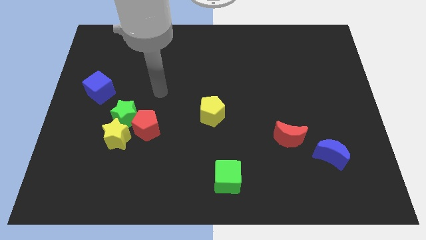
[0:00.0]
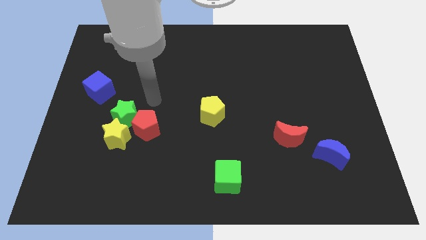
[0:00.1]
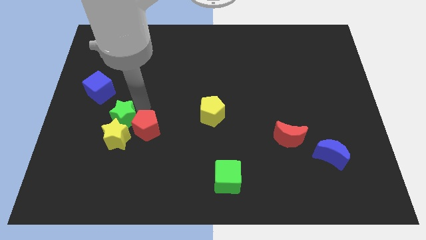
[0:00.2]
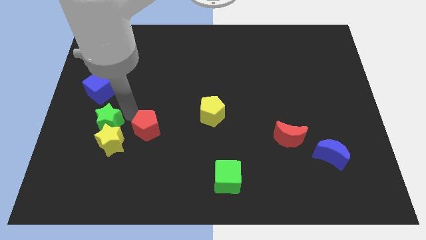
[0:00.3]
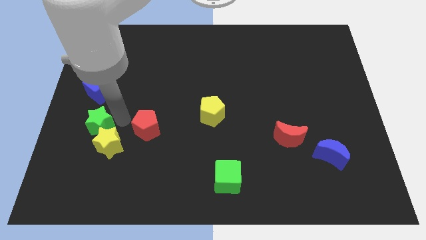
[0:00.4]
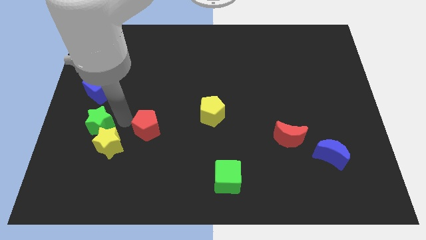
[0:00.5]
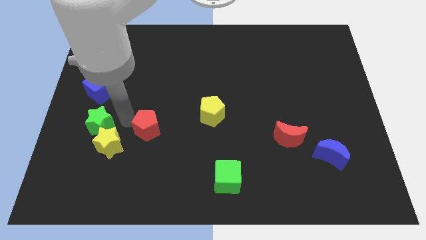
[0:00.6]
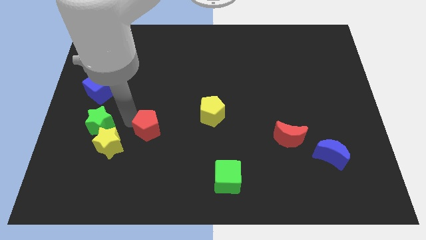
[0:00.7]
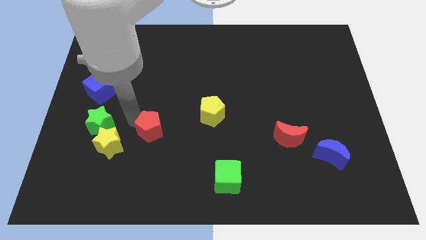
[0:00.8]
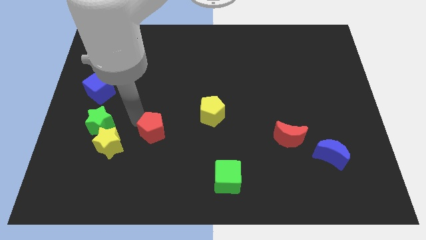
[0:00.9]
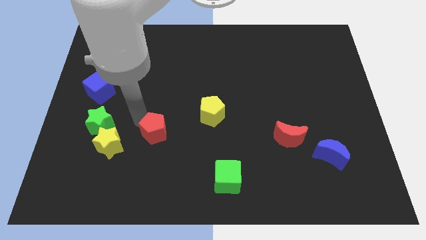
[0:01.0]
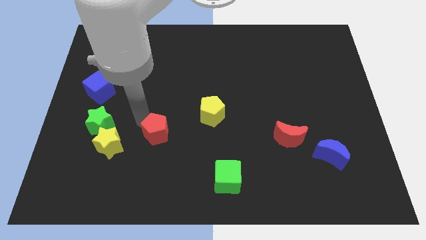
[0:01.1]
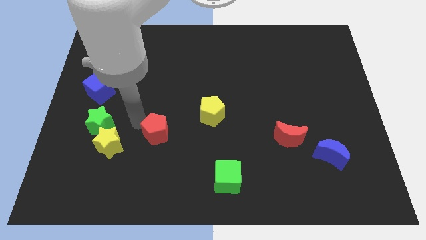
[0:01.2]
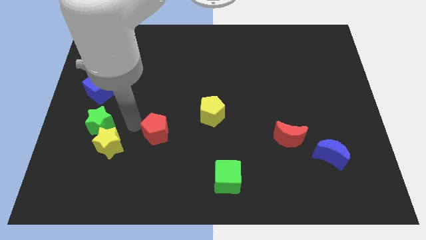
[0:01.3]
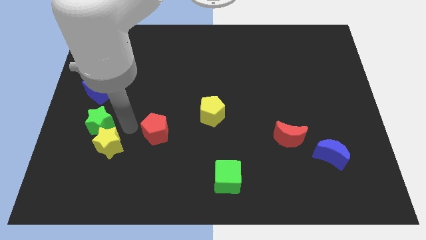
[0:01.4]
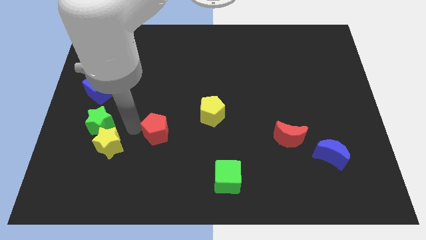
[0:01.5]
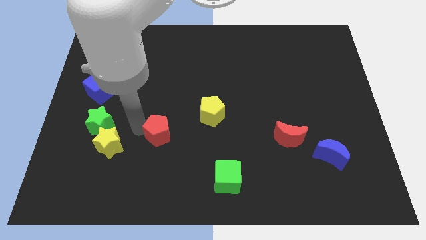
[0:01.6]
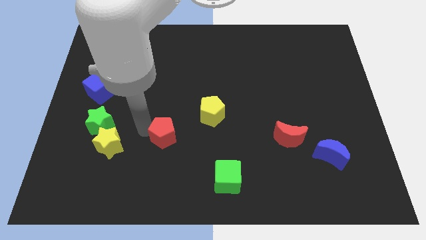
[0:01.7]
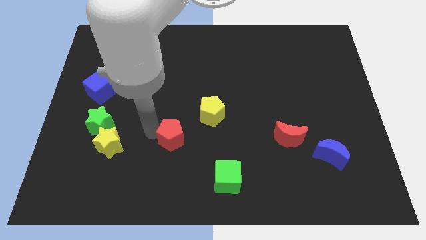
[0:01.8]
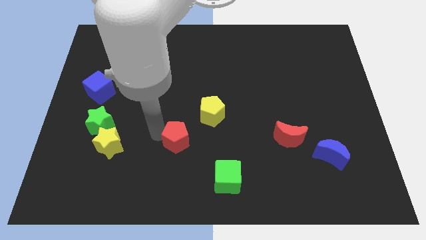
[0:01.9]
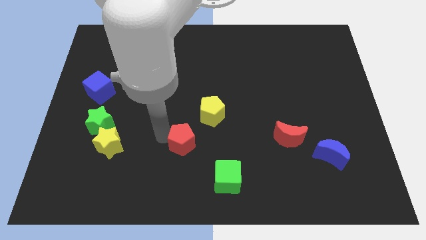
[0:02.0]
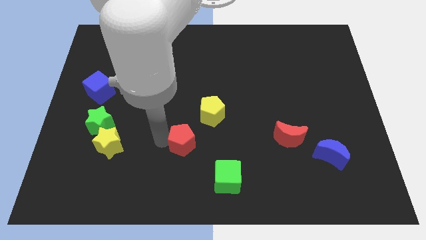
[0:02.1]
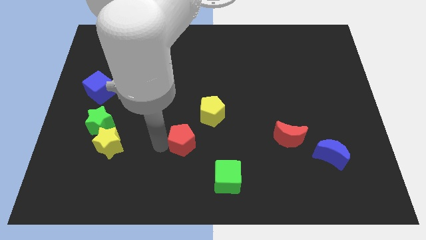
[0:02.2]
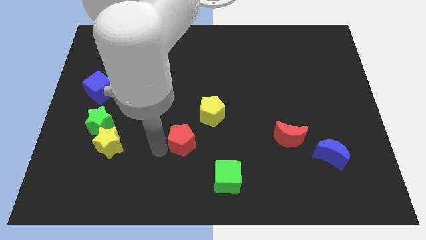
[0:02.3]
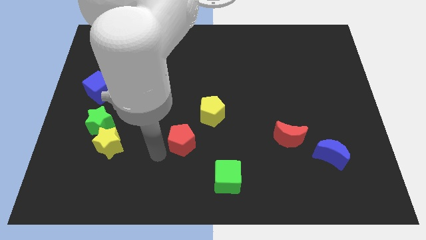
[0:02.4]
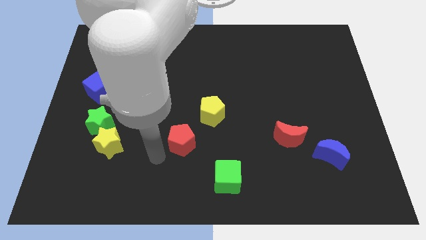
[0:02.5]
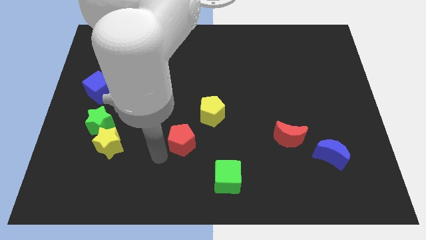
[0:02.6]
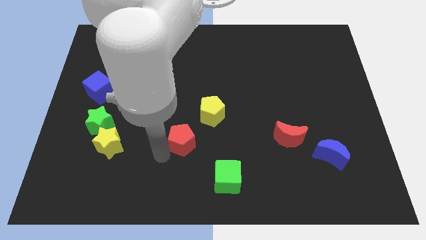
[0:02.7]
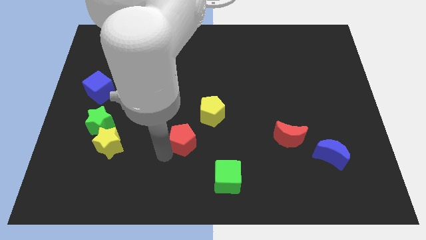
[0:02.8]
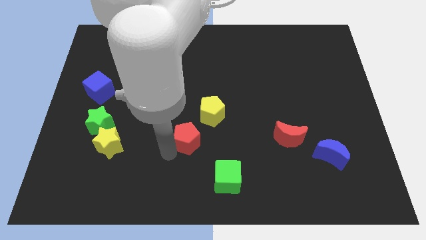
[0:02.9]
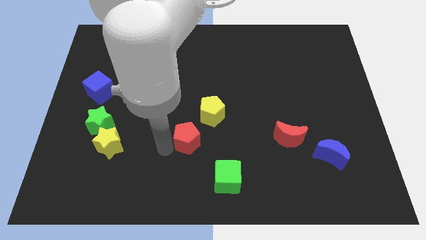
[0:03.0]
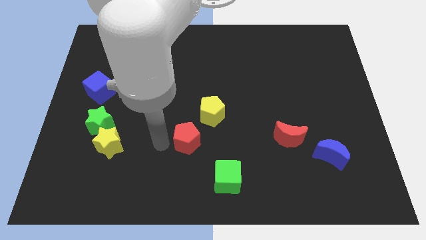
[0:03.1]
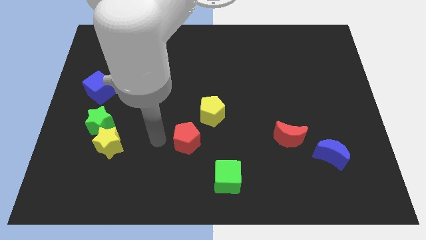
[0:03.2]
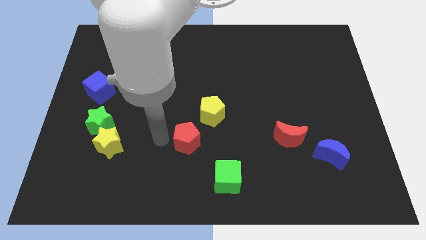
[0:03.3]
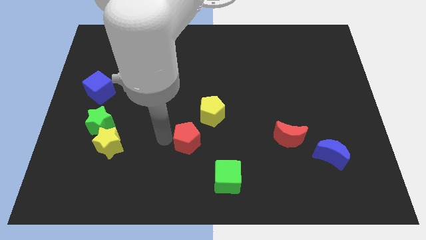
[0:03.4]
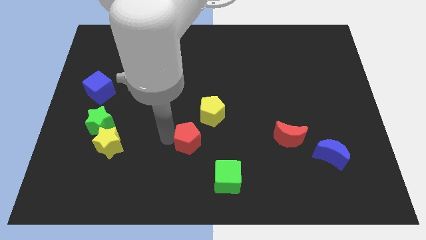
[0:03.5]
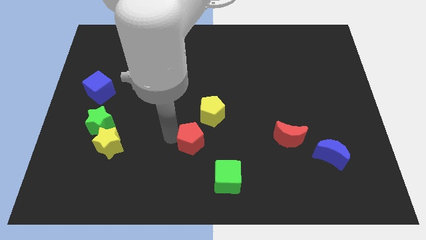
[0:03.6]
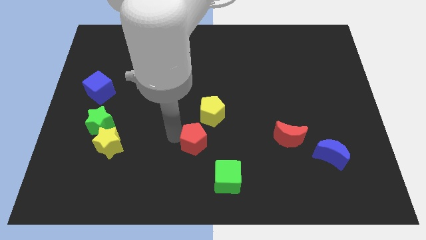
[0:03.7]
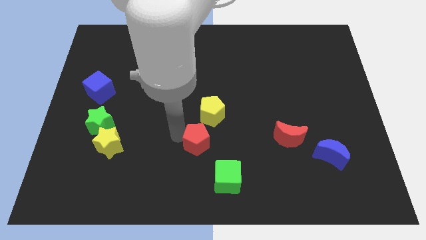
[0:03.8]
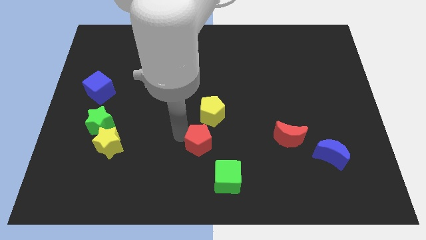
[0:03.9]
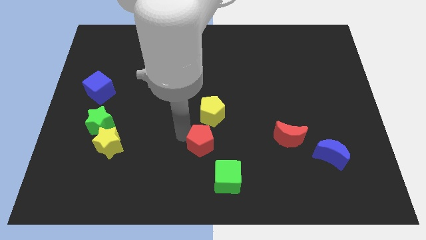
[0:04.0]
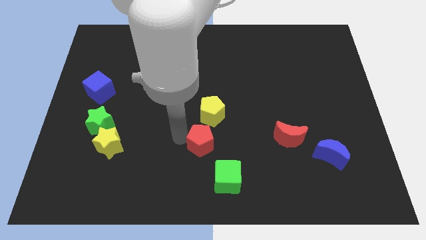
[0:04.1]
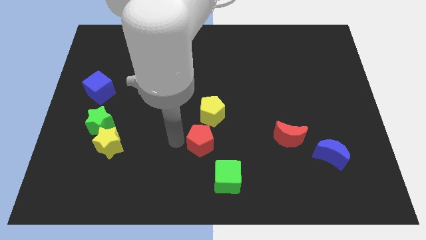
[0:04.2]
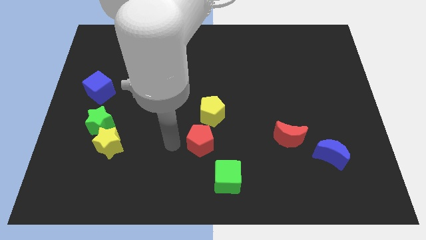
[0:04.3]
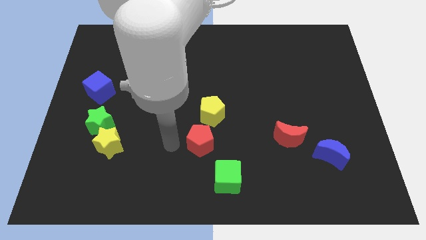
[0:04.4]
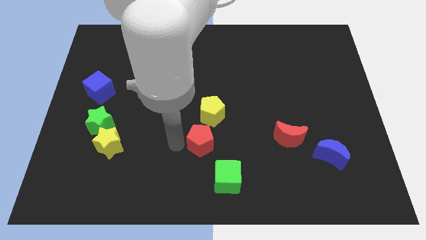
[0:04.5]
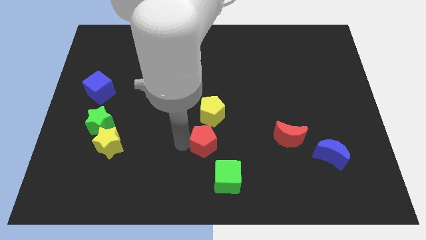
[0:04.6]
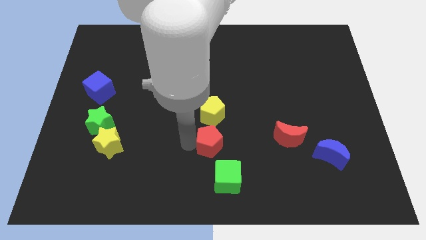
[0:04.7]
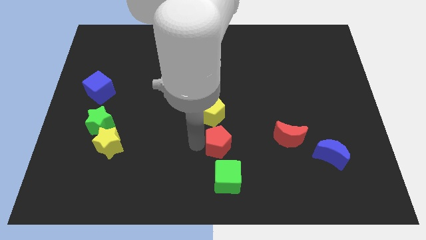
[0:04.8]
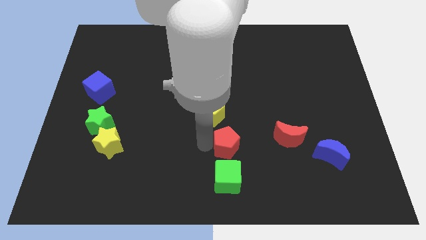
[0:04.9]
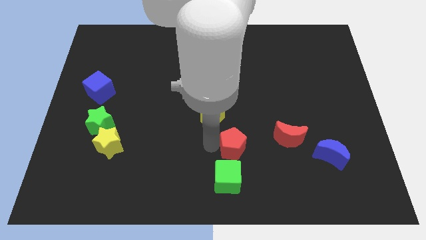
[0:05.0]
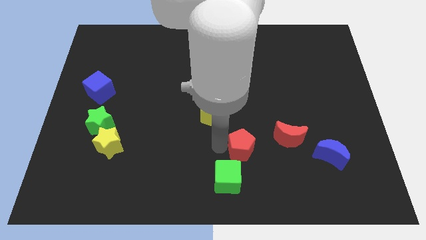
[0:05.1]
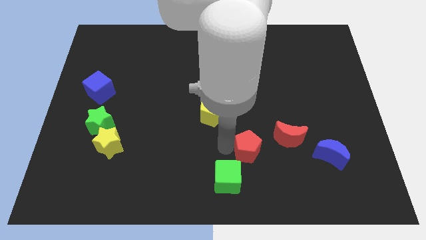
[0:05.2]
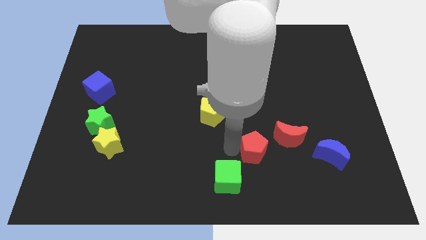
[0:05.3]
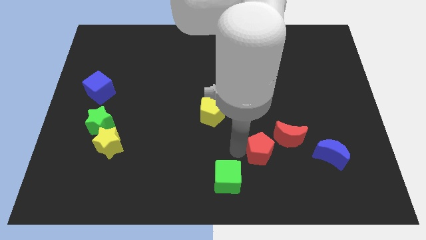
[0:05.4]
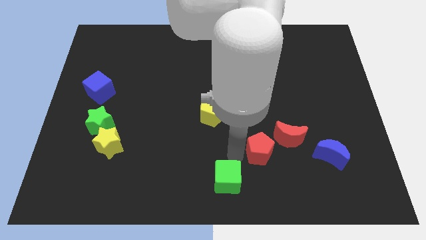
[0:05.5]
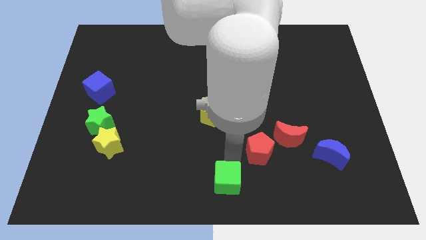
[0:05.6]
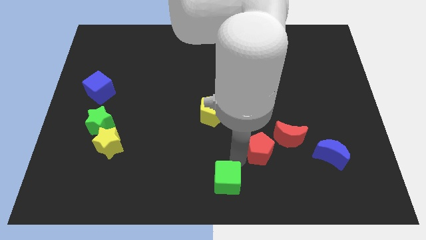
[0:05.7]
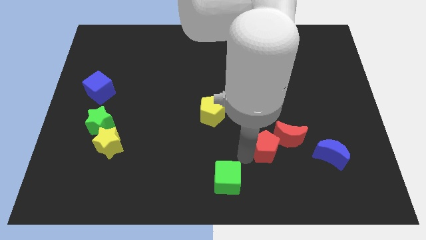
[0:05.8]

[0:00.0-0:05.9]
put the red pentagon close to the red moon

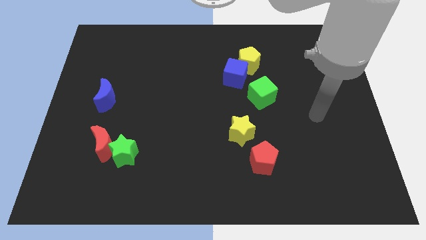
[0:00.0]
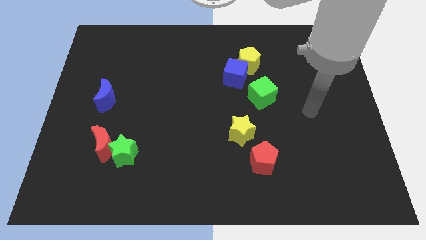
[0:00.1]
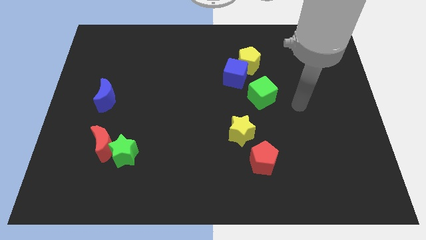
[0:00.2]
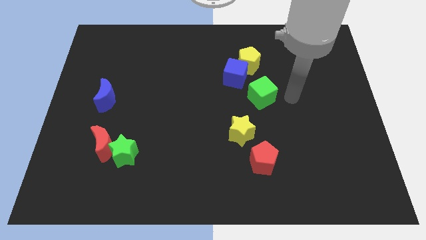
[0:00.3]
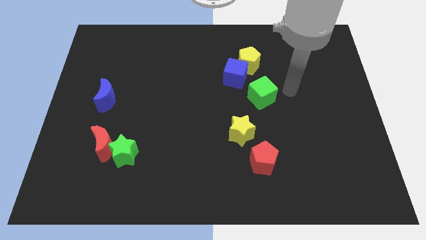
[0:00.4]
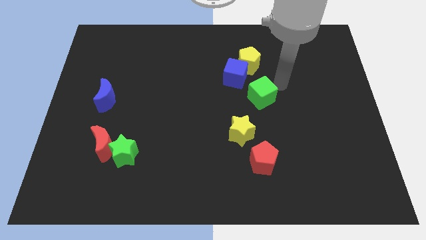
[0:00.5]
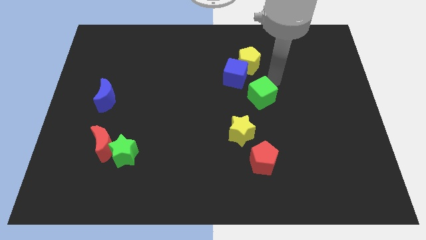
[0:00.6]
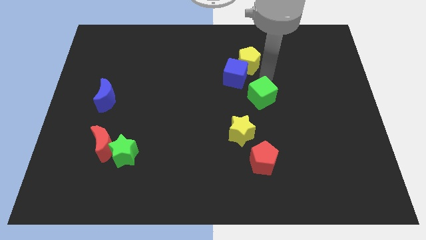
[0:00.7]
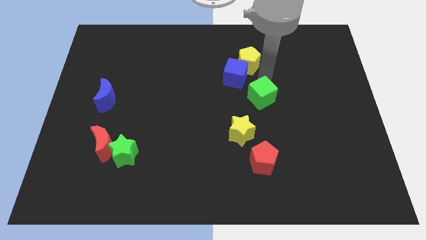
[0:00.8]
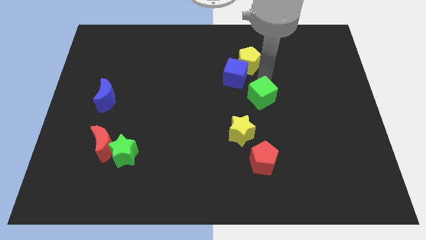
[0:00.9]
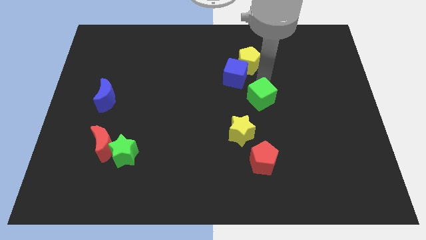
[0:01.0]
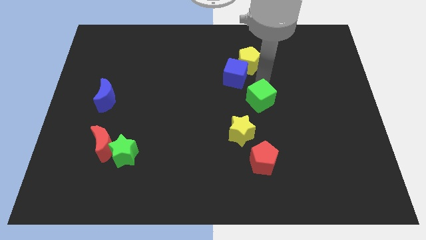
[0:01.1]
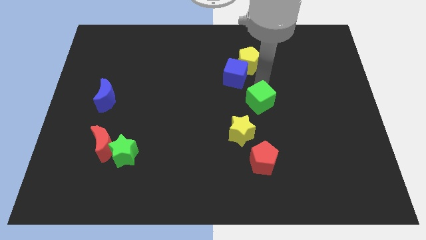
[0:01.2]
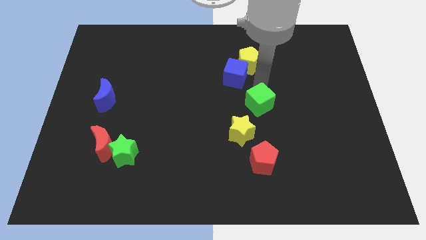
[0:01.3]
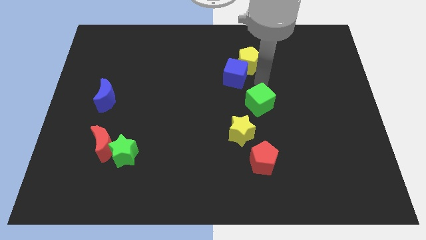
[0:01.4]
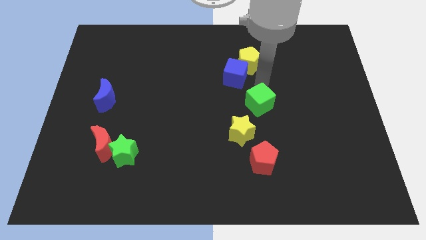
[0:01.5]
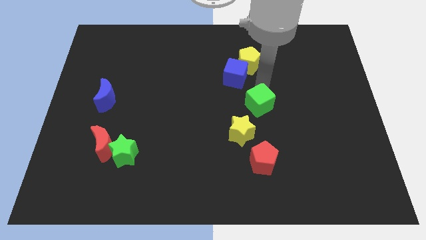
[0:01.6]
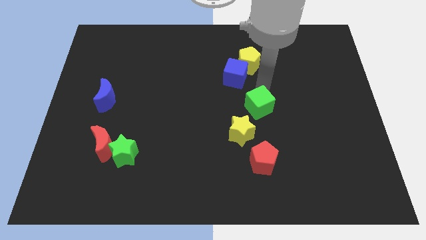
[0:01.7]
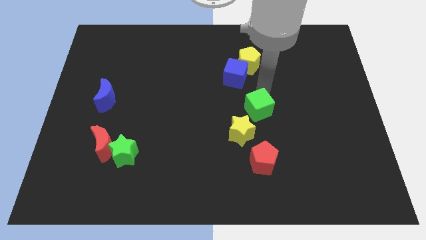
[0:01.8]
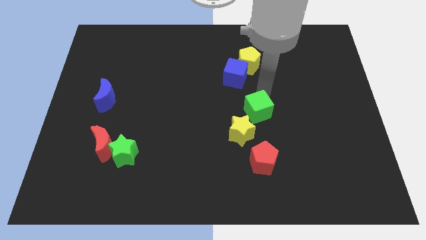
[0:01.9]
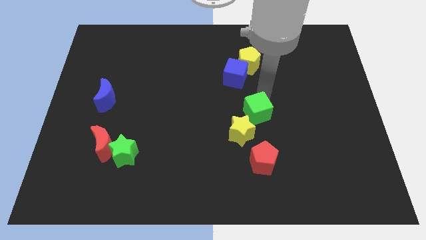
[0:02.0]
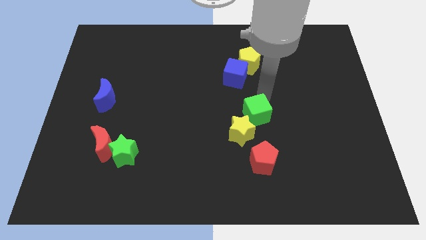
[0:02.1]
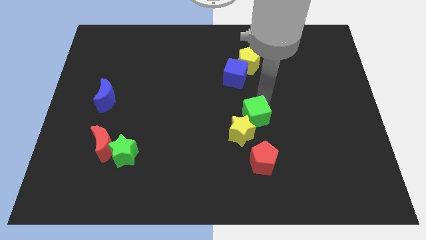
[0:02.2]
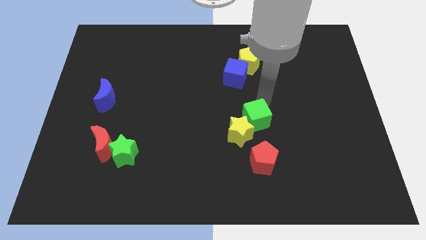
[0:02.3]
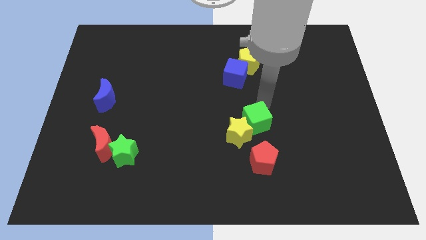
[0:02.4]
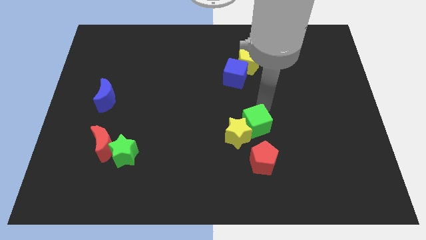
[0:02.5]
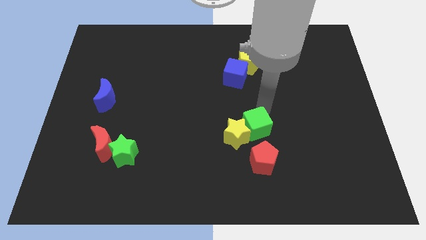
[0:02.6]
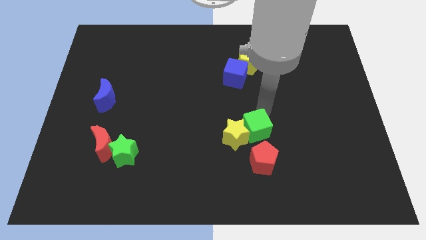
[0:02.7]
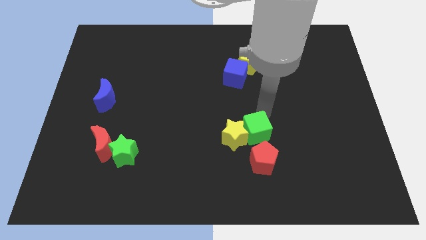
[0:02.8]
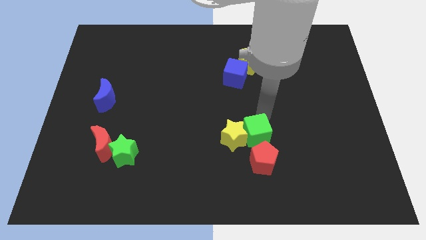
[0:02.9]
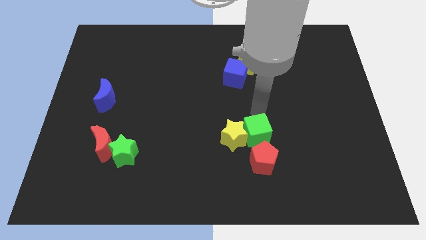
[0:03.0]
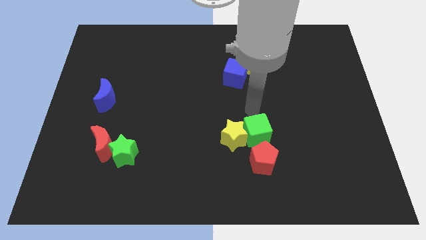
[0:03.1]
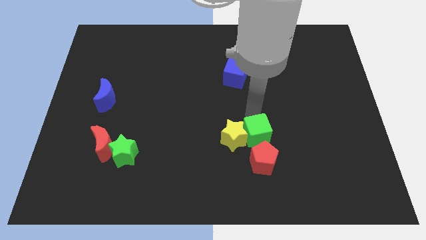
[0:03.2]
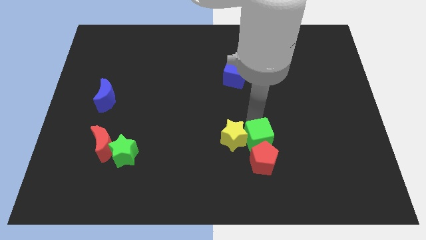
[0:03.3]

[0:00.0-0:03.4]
put the green cube close to the red pentagon
